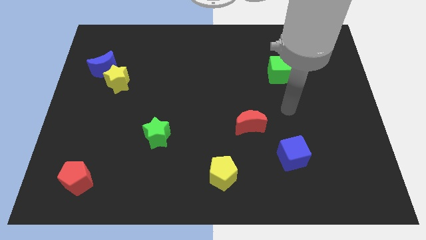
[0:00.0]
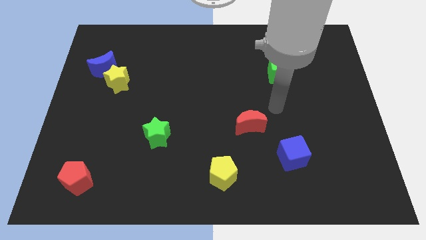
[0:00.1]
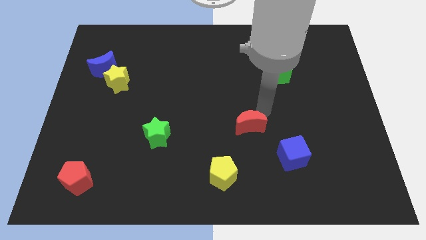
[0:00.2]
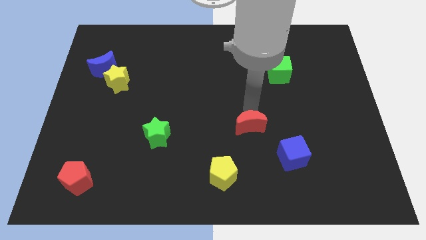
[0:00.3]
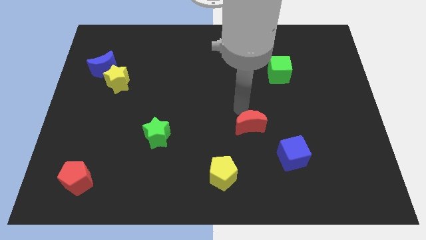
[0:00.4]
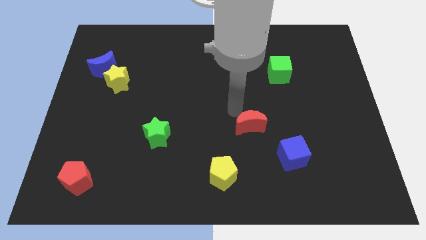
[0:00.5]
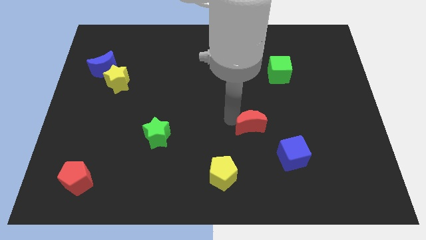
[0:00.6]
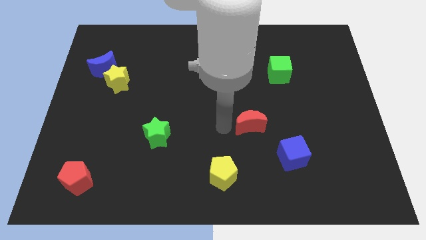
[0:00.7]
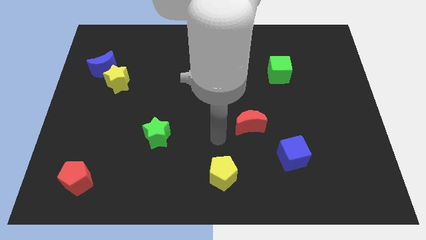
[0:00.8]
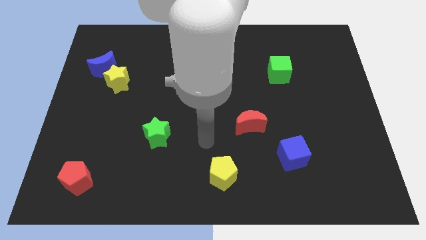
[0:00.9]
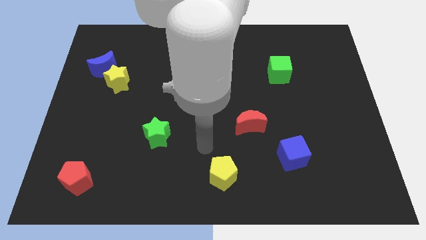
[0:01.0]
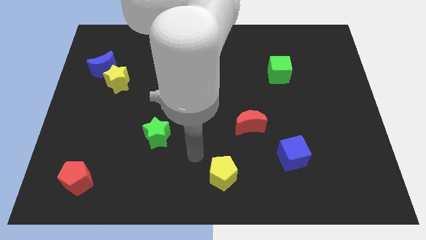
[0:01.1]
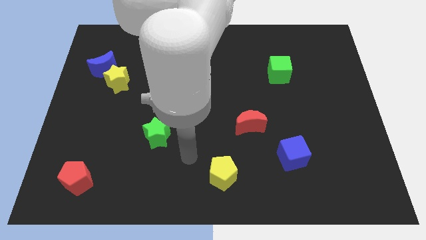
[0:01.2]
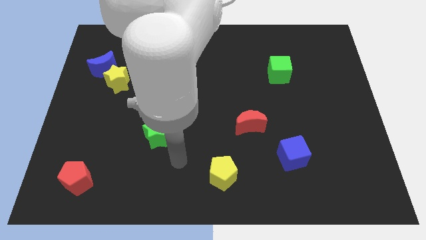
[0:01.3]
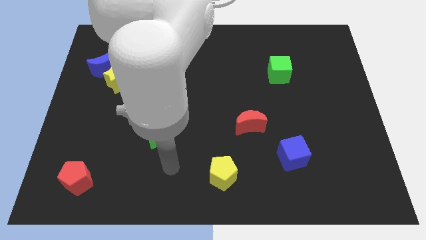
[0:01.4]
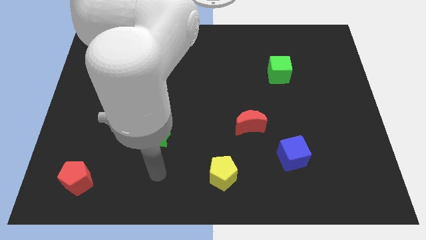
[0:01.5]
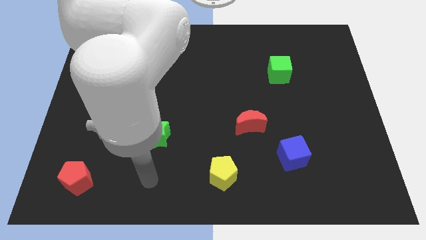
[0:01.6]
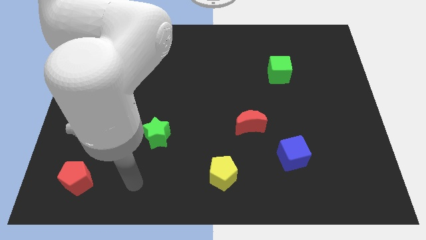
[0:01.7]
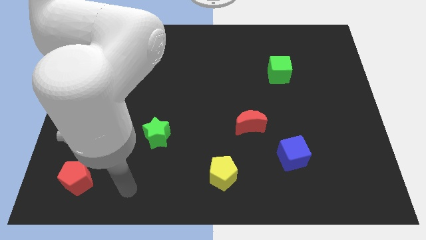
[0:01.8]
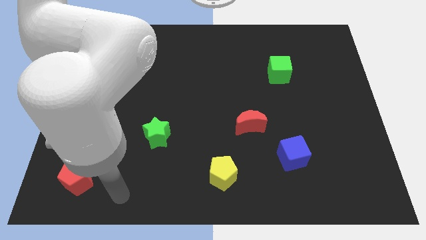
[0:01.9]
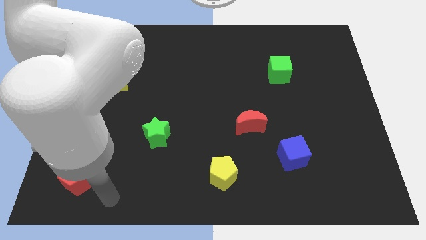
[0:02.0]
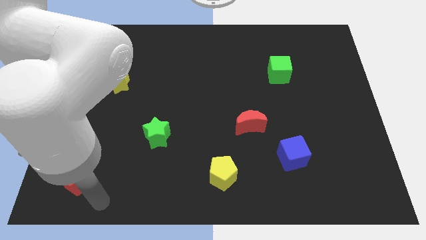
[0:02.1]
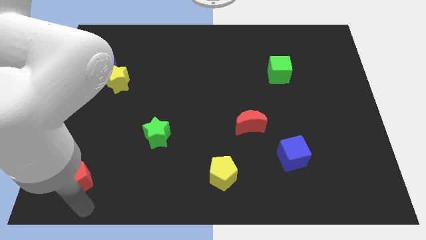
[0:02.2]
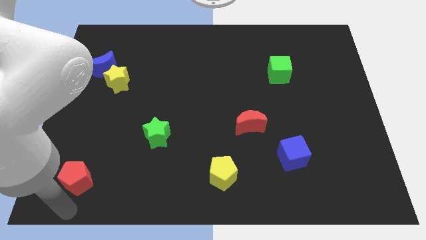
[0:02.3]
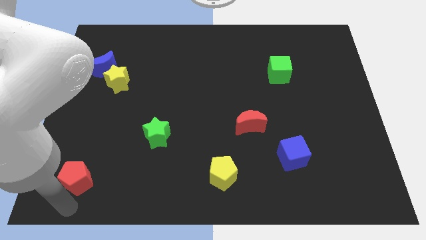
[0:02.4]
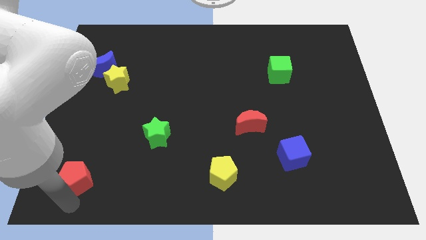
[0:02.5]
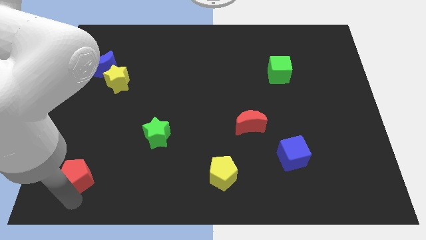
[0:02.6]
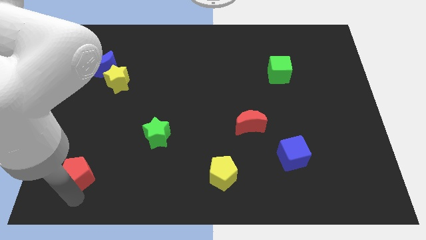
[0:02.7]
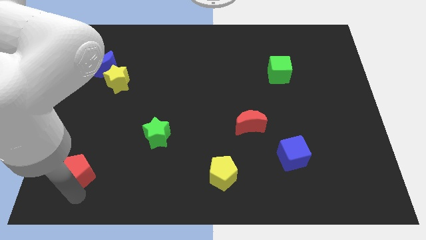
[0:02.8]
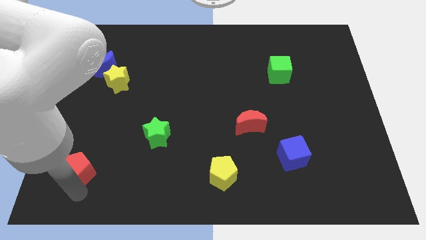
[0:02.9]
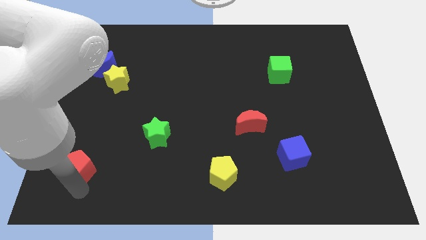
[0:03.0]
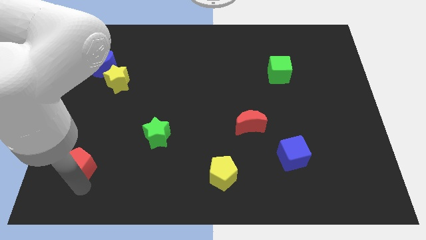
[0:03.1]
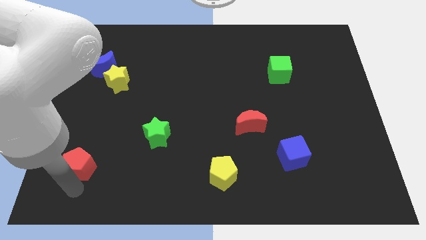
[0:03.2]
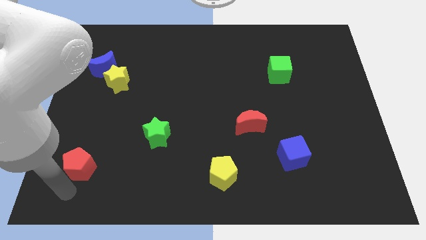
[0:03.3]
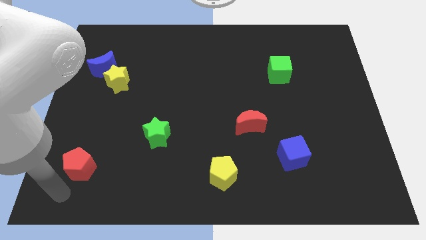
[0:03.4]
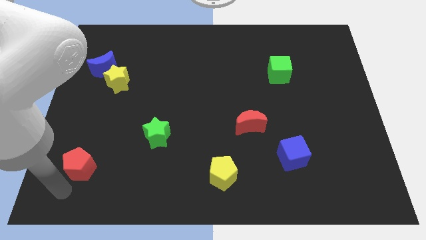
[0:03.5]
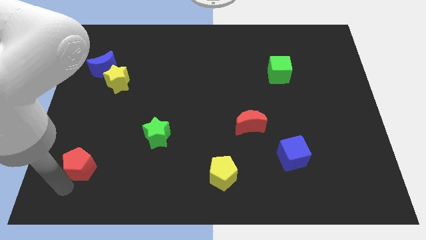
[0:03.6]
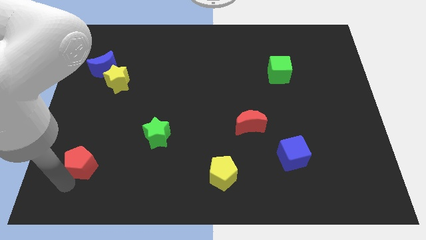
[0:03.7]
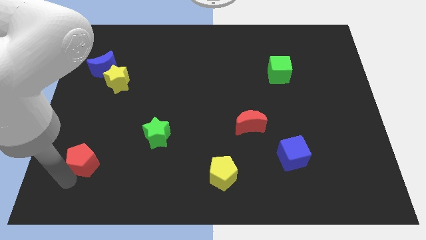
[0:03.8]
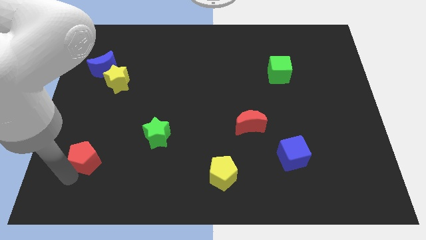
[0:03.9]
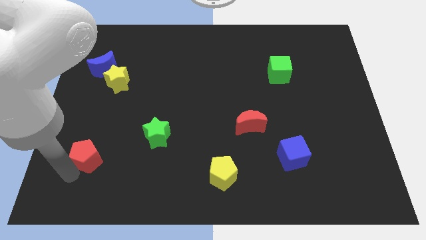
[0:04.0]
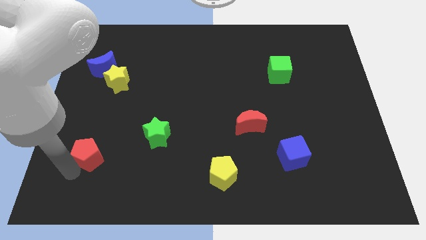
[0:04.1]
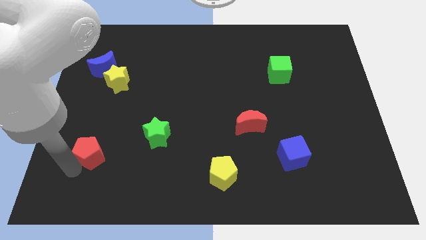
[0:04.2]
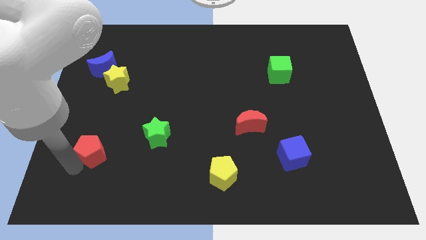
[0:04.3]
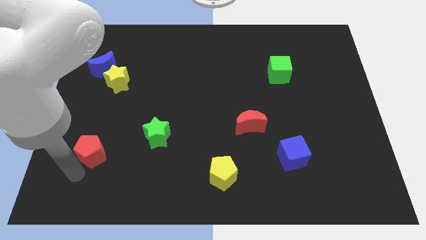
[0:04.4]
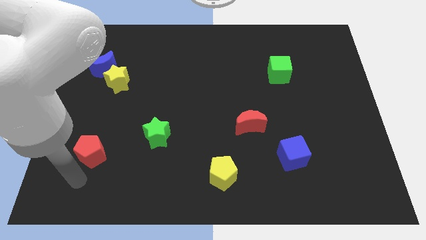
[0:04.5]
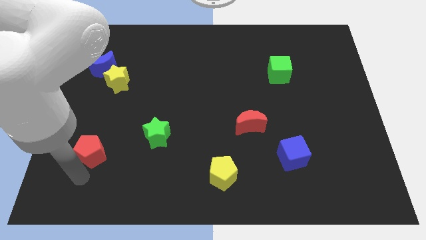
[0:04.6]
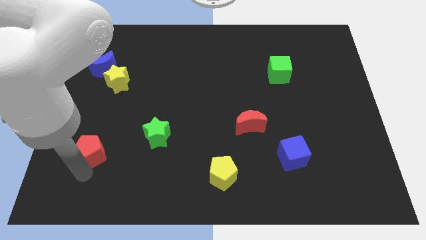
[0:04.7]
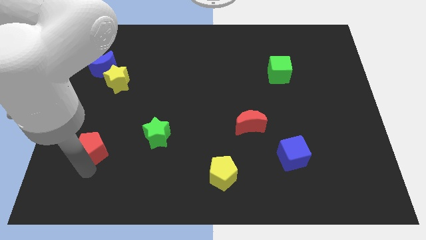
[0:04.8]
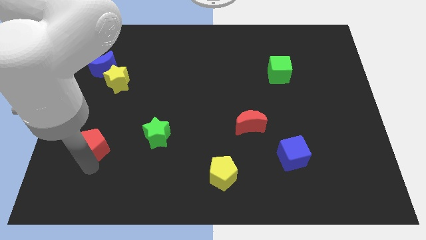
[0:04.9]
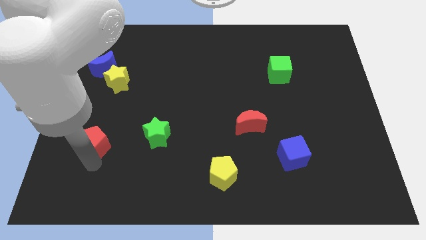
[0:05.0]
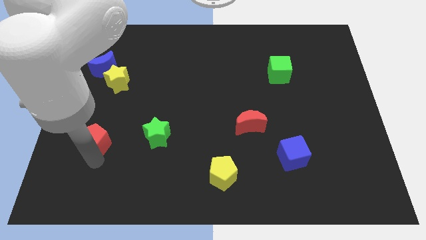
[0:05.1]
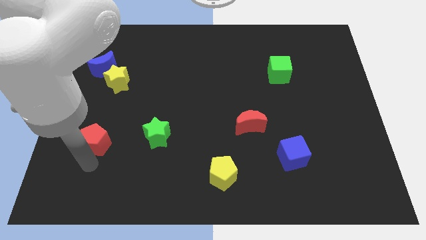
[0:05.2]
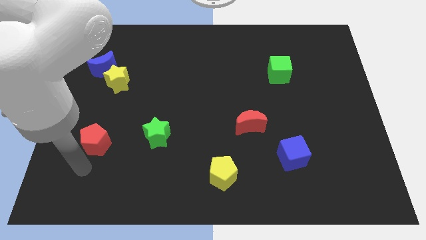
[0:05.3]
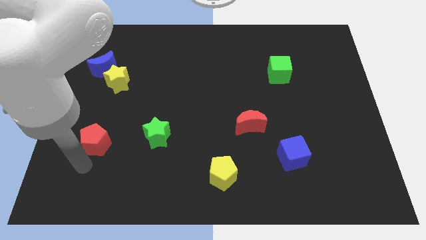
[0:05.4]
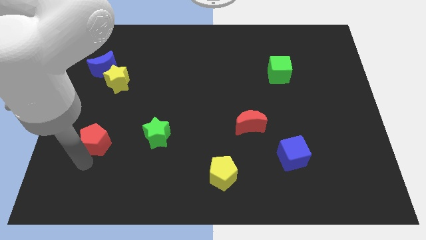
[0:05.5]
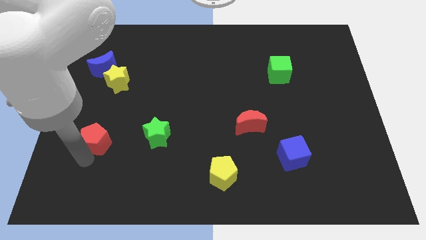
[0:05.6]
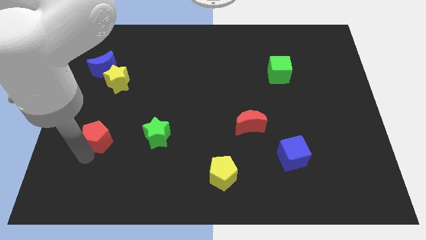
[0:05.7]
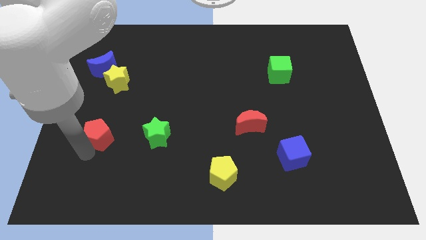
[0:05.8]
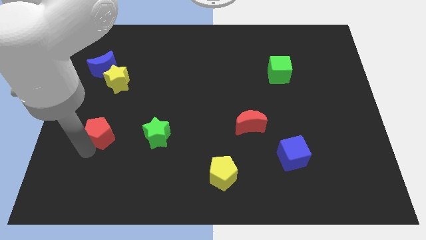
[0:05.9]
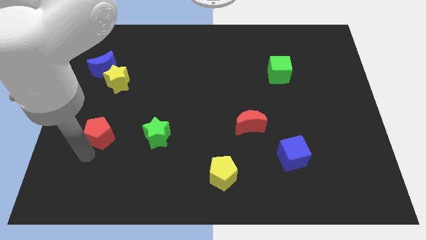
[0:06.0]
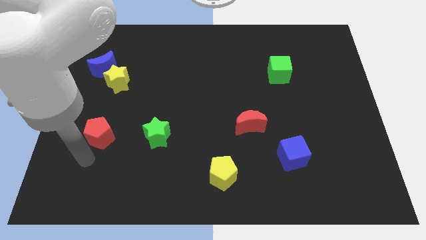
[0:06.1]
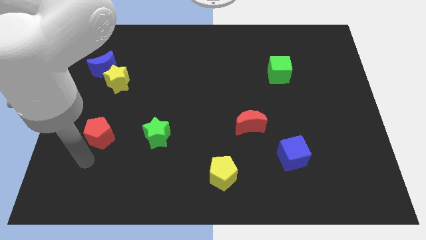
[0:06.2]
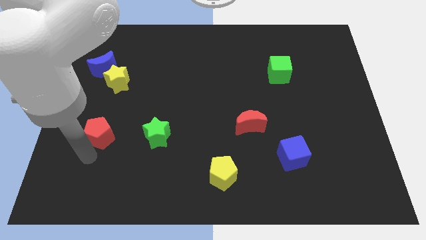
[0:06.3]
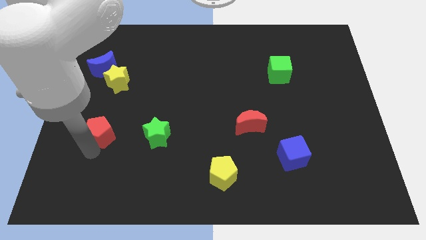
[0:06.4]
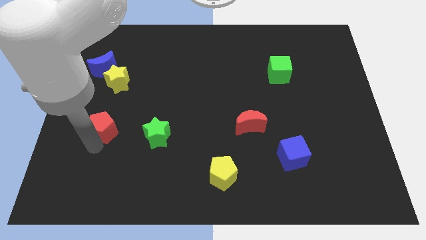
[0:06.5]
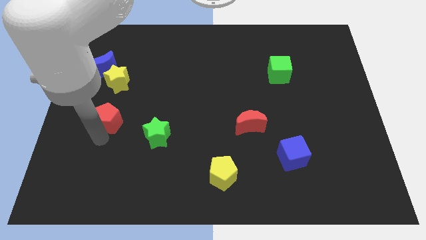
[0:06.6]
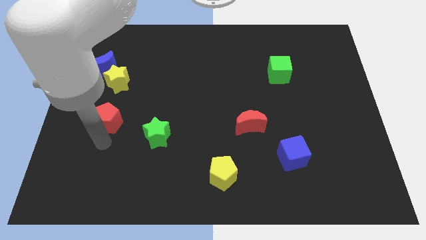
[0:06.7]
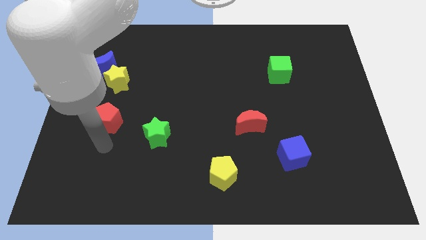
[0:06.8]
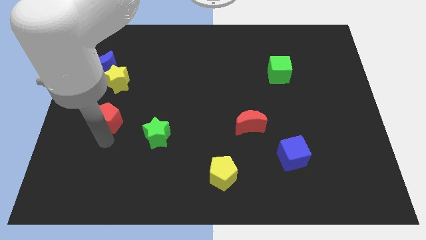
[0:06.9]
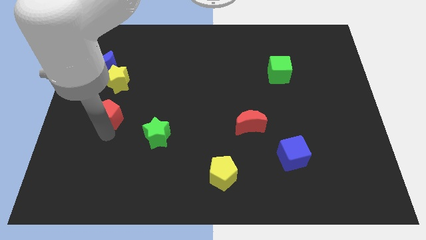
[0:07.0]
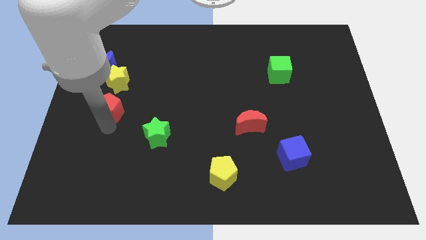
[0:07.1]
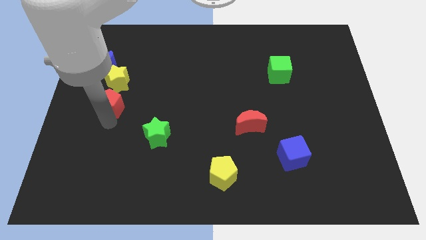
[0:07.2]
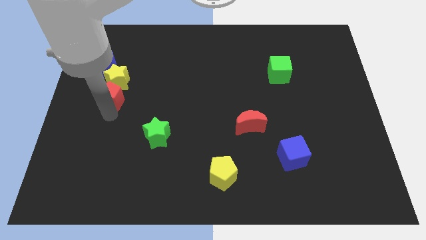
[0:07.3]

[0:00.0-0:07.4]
move the red pentagon towards the yellow star
